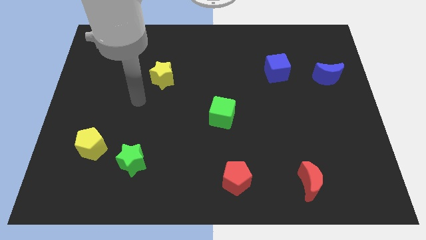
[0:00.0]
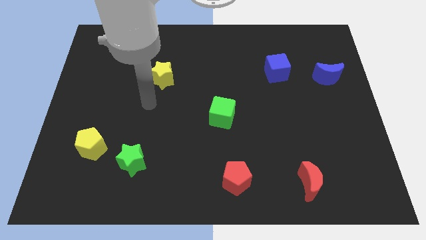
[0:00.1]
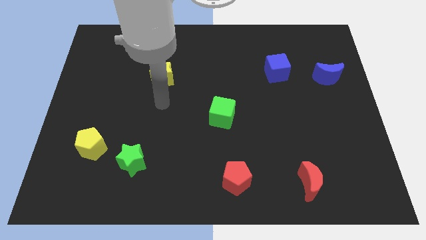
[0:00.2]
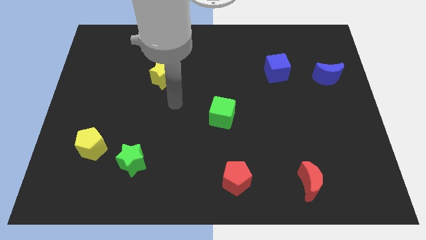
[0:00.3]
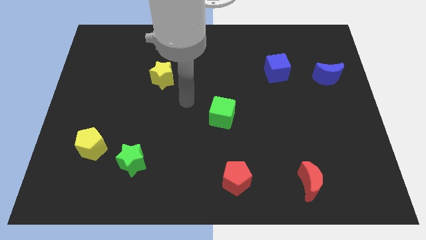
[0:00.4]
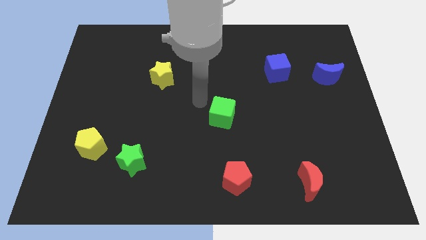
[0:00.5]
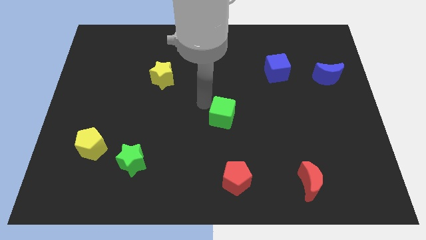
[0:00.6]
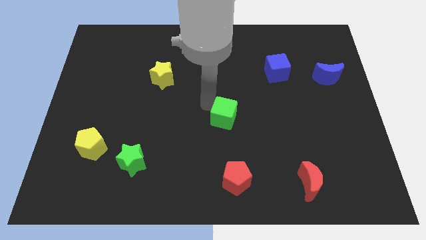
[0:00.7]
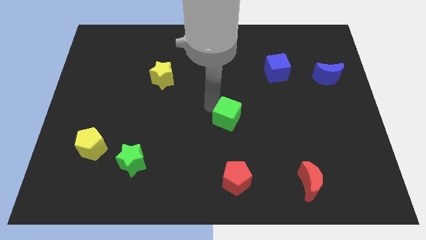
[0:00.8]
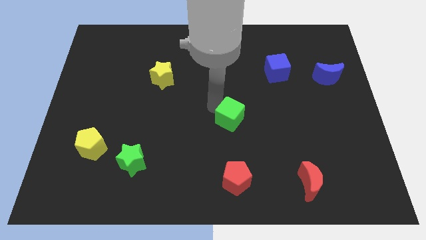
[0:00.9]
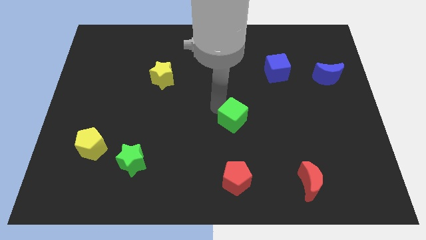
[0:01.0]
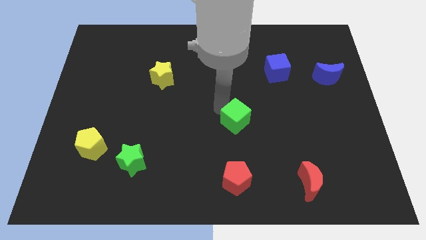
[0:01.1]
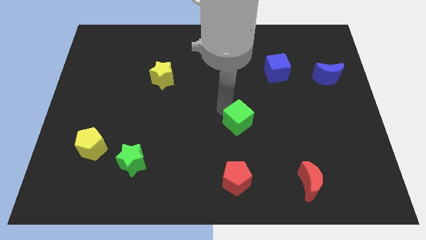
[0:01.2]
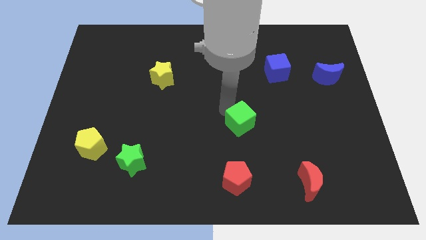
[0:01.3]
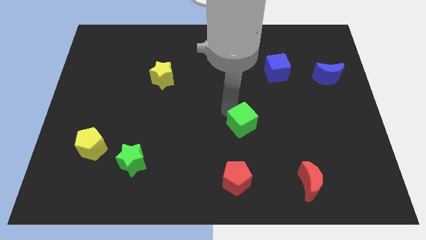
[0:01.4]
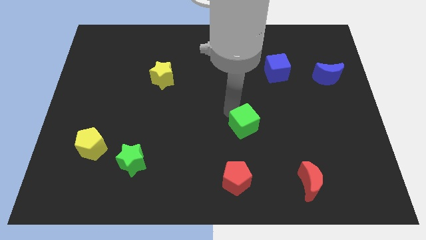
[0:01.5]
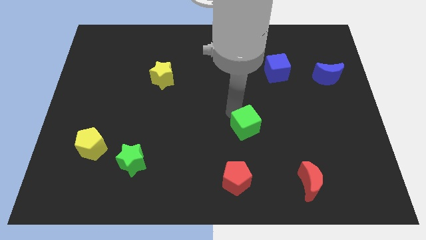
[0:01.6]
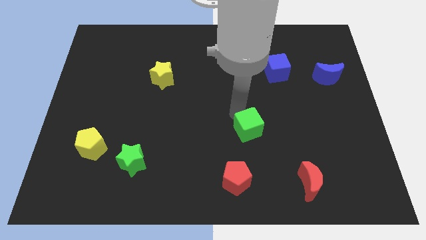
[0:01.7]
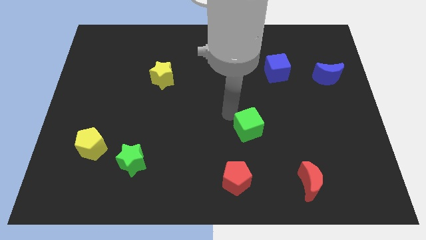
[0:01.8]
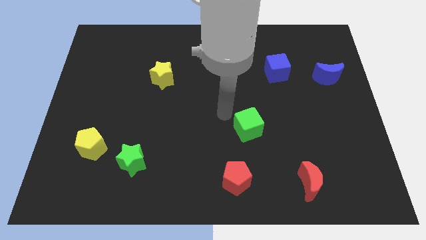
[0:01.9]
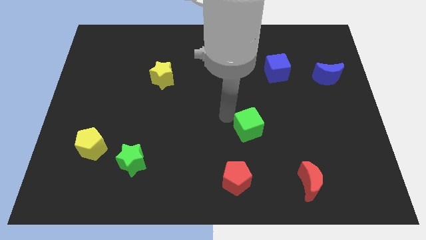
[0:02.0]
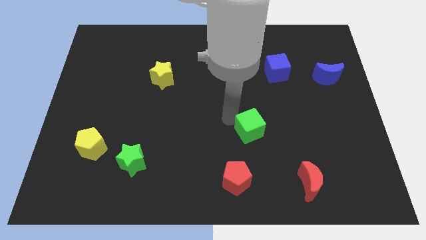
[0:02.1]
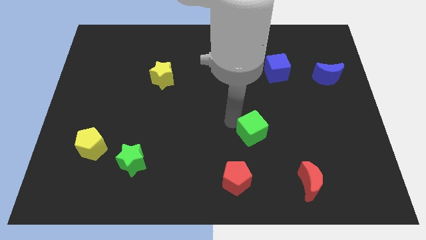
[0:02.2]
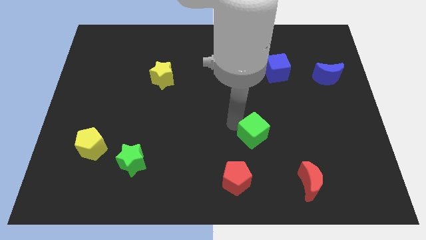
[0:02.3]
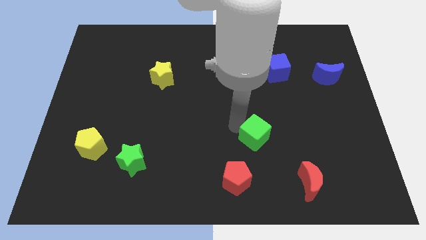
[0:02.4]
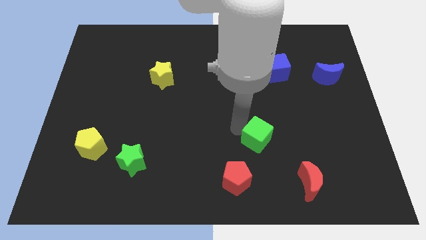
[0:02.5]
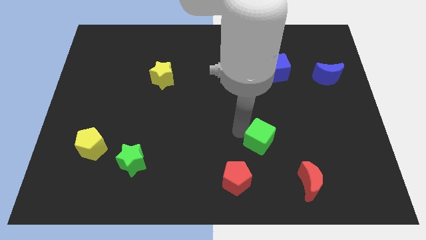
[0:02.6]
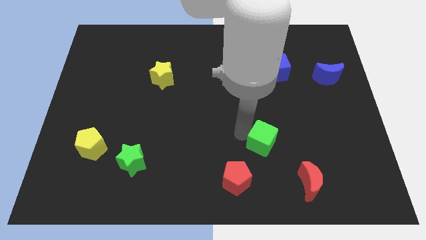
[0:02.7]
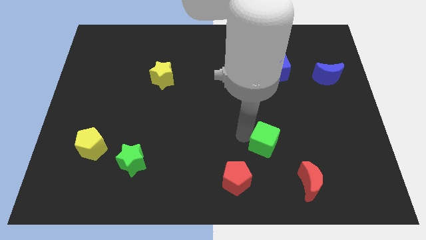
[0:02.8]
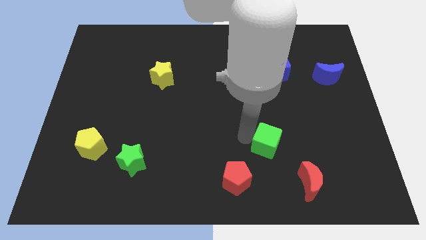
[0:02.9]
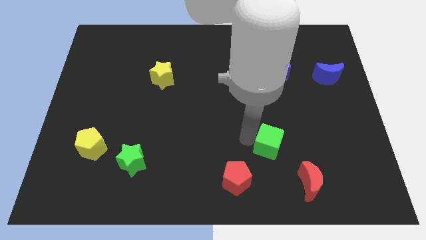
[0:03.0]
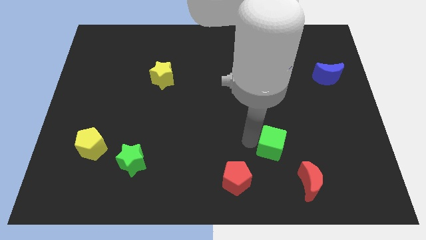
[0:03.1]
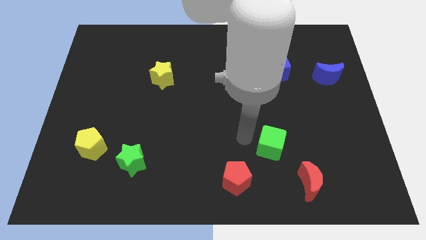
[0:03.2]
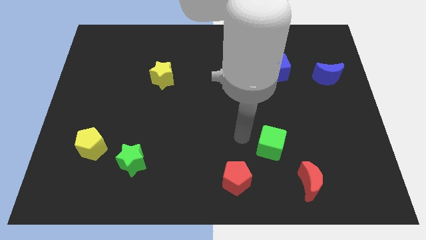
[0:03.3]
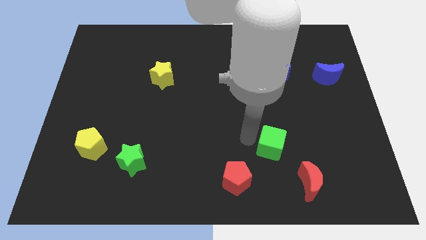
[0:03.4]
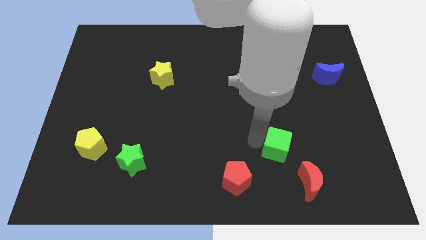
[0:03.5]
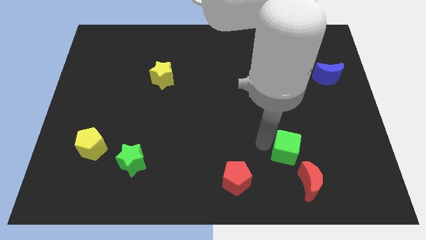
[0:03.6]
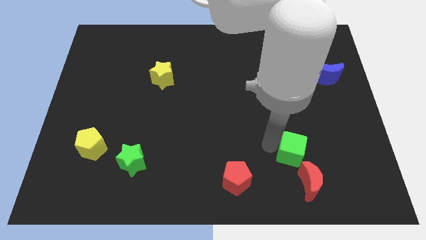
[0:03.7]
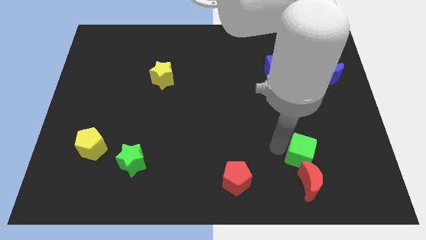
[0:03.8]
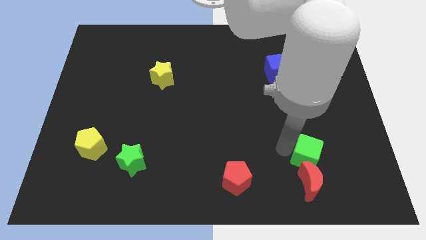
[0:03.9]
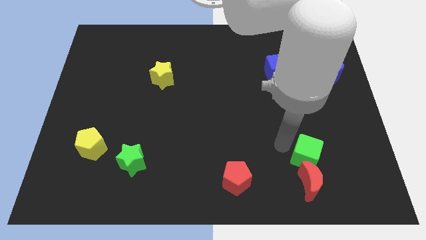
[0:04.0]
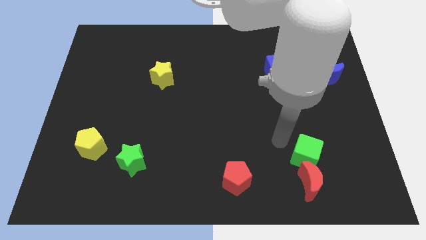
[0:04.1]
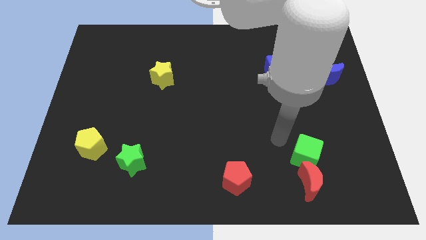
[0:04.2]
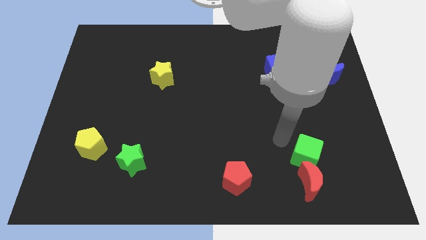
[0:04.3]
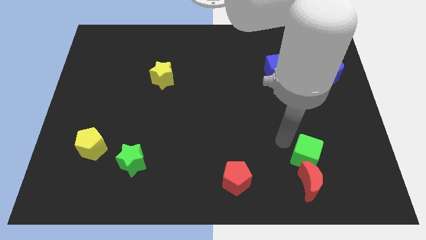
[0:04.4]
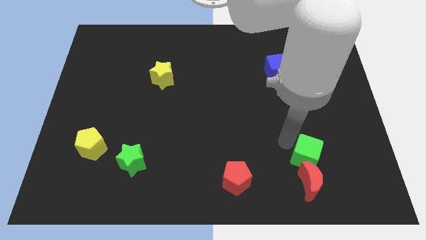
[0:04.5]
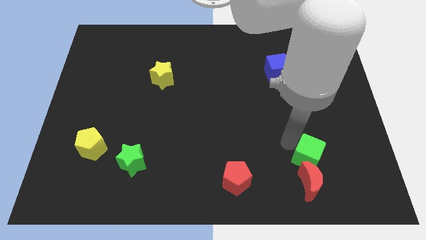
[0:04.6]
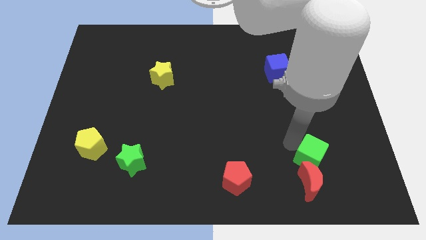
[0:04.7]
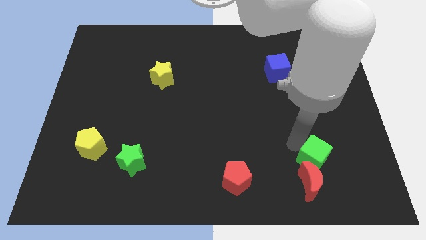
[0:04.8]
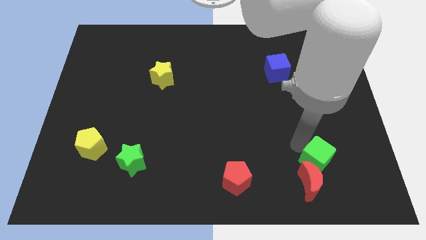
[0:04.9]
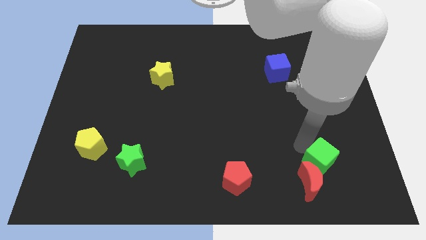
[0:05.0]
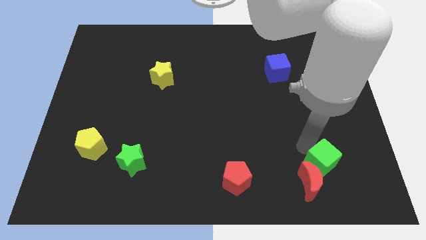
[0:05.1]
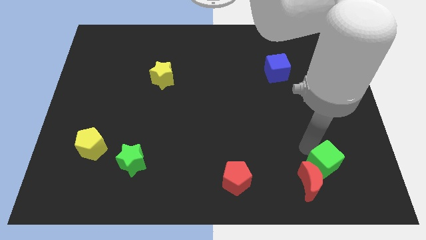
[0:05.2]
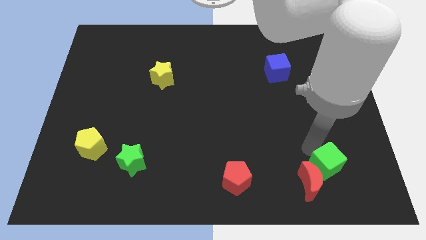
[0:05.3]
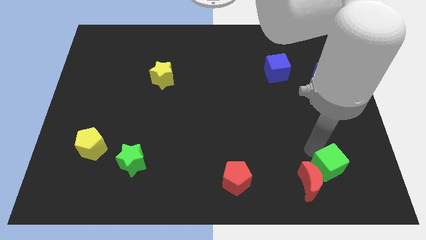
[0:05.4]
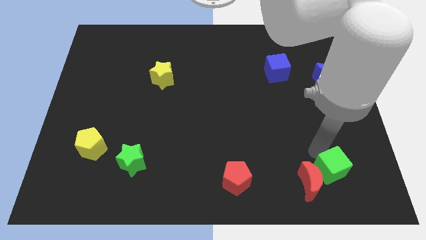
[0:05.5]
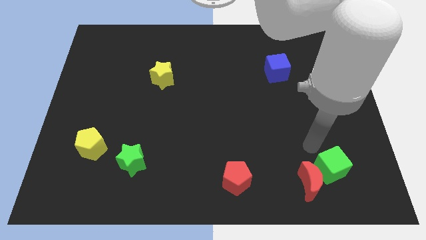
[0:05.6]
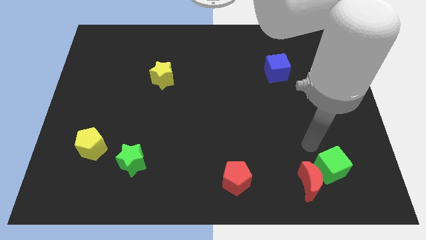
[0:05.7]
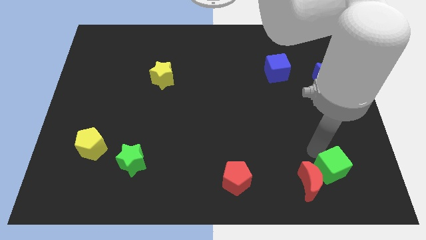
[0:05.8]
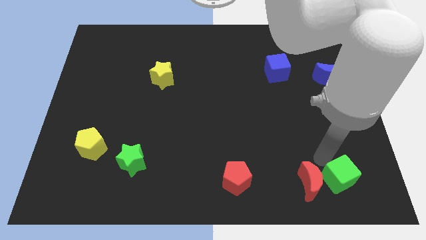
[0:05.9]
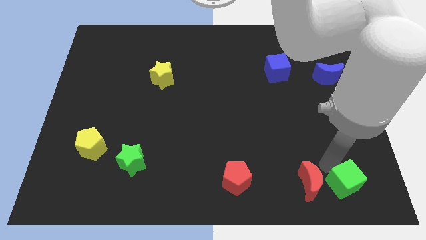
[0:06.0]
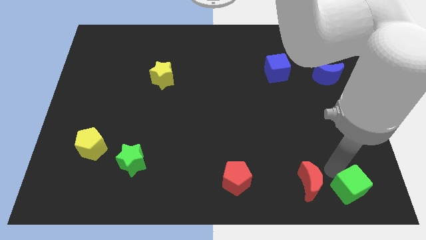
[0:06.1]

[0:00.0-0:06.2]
move the green cube to the lower right corner

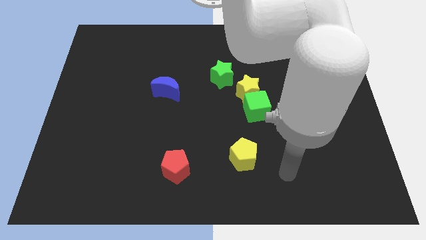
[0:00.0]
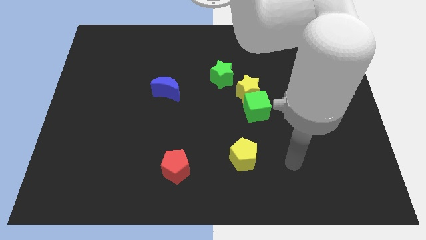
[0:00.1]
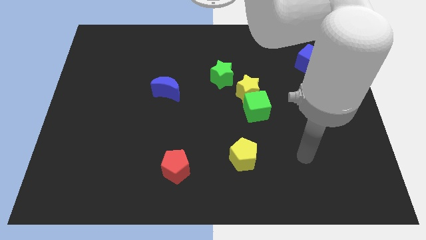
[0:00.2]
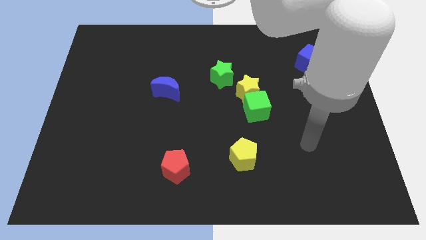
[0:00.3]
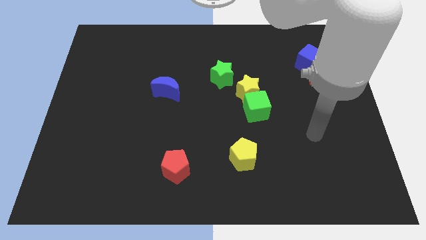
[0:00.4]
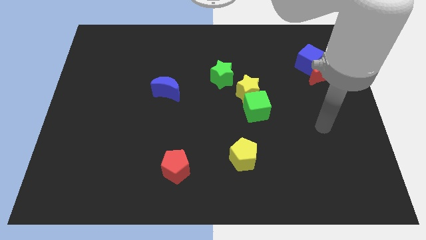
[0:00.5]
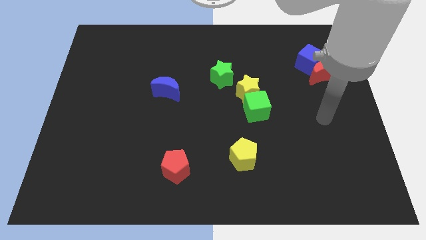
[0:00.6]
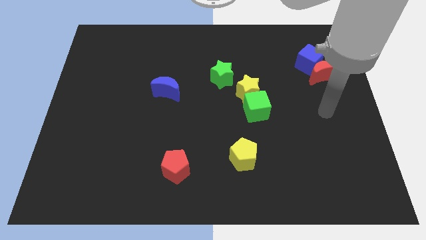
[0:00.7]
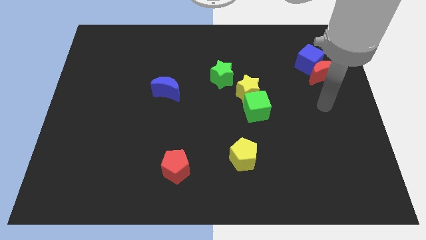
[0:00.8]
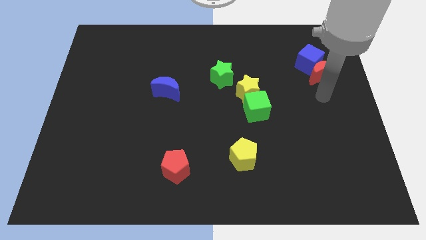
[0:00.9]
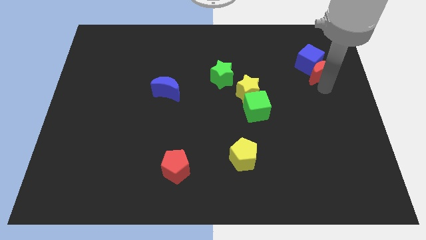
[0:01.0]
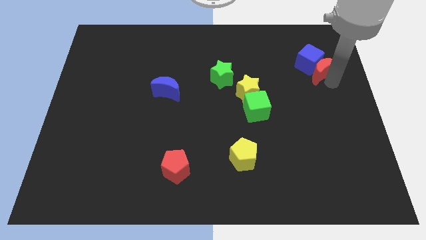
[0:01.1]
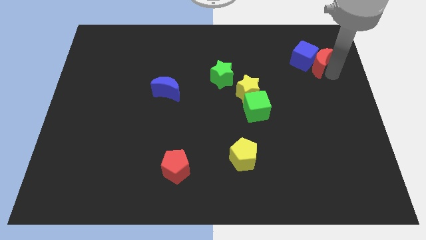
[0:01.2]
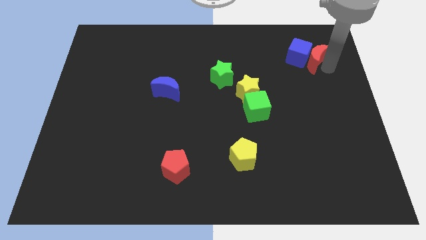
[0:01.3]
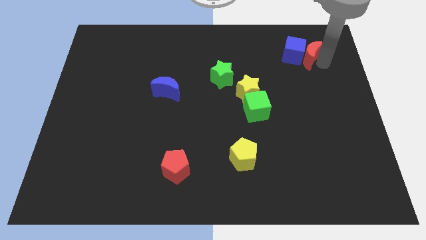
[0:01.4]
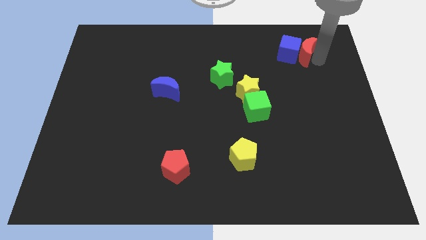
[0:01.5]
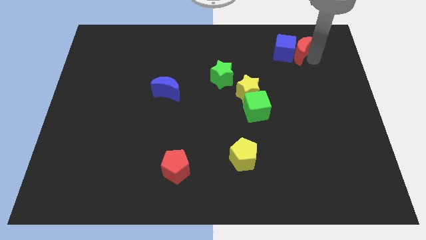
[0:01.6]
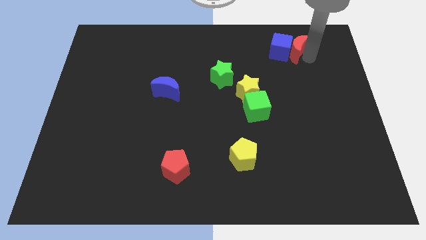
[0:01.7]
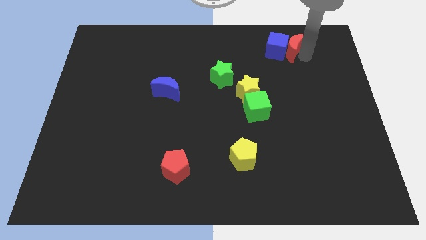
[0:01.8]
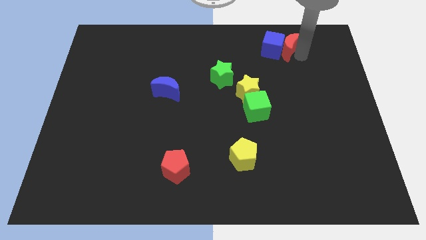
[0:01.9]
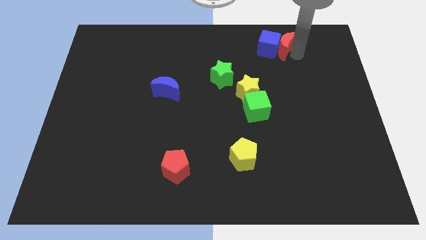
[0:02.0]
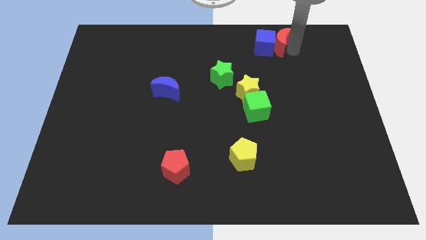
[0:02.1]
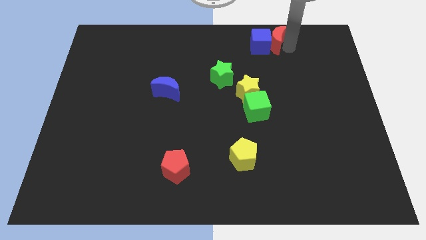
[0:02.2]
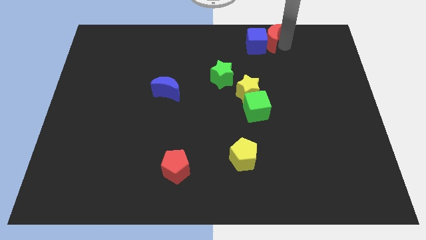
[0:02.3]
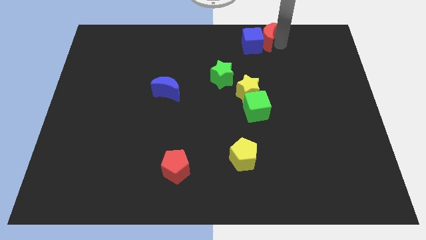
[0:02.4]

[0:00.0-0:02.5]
move the blue cube to the top
